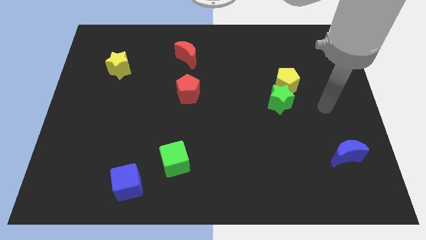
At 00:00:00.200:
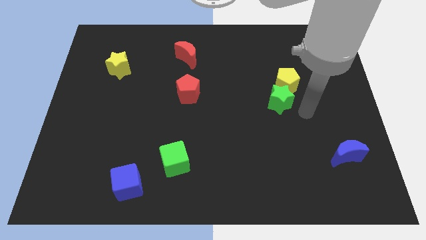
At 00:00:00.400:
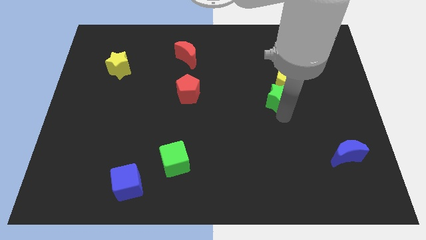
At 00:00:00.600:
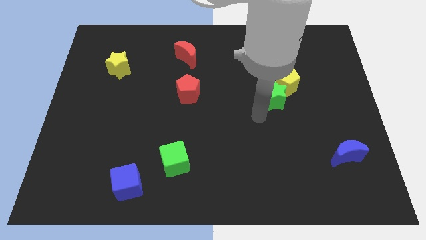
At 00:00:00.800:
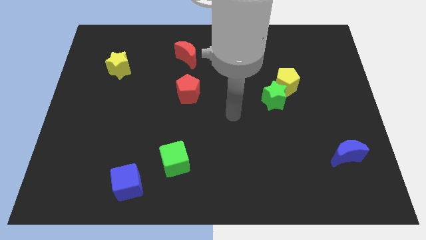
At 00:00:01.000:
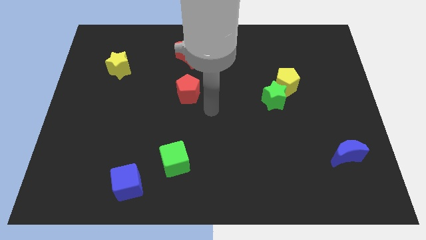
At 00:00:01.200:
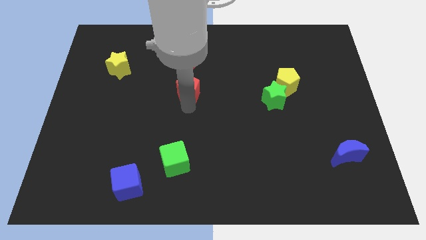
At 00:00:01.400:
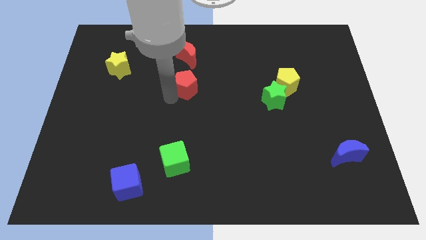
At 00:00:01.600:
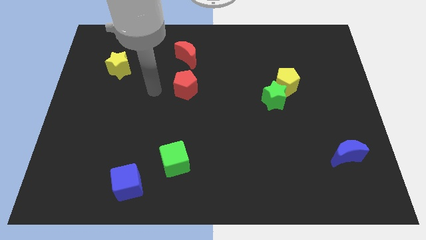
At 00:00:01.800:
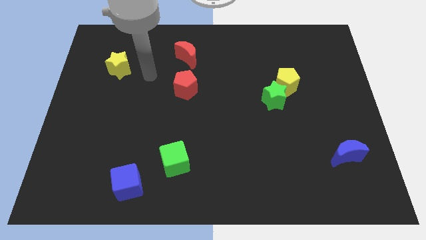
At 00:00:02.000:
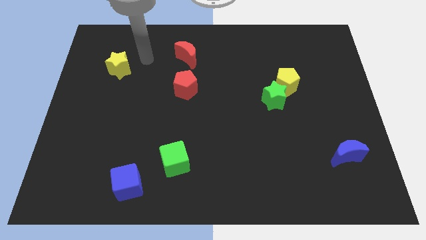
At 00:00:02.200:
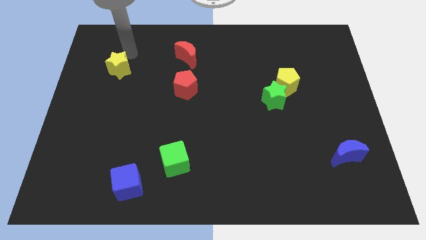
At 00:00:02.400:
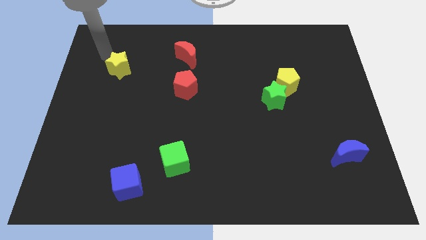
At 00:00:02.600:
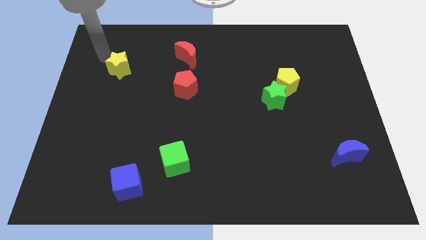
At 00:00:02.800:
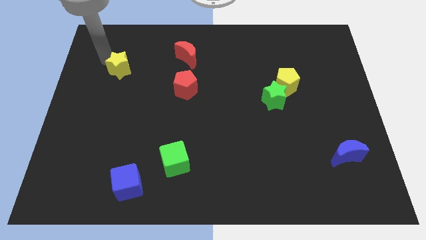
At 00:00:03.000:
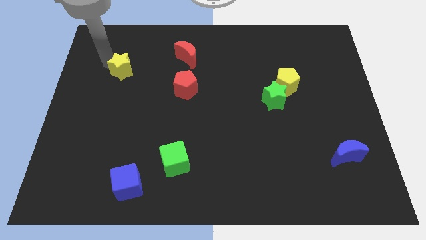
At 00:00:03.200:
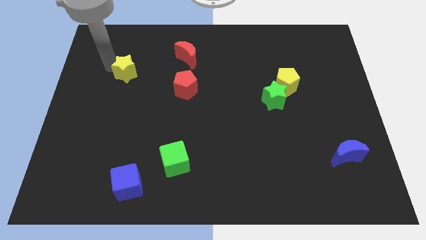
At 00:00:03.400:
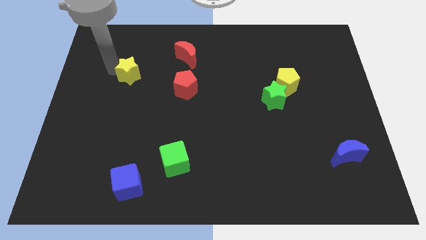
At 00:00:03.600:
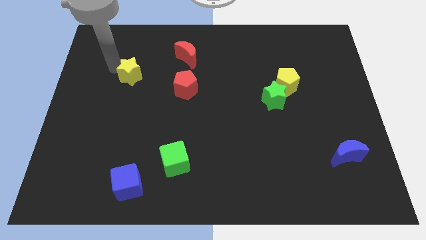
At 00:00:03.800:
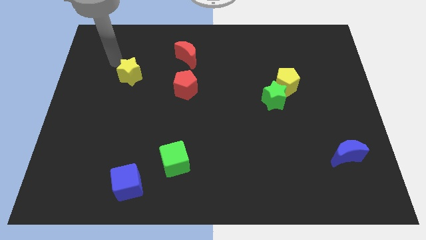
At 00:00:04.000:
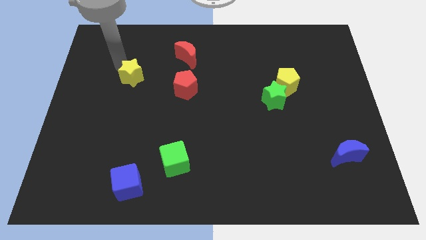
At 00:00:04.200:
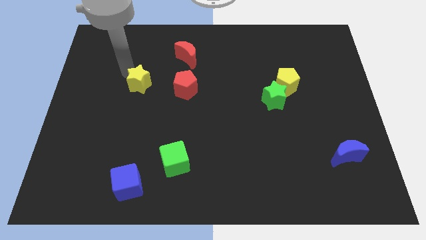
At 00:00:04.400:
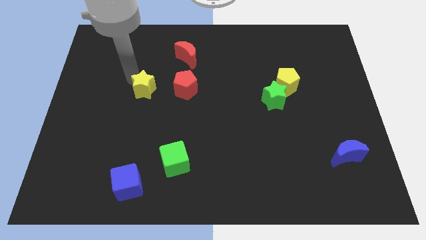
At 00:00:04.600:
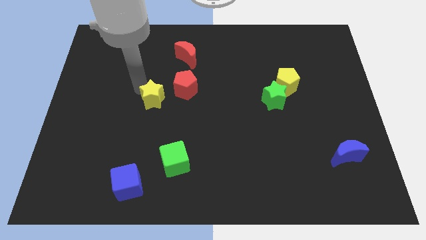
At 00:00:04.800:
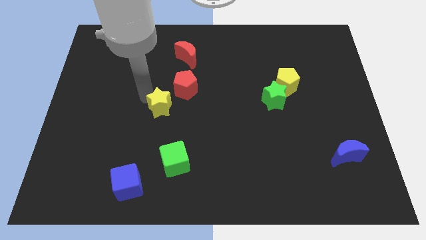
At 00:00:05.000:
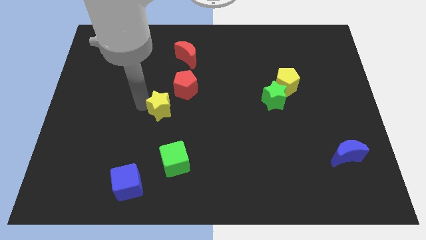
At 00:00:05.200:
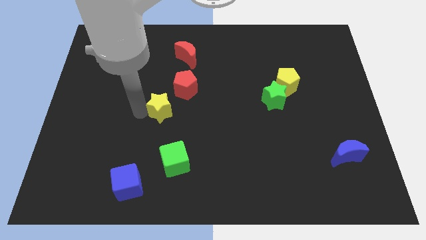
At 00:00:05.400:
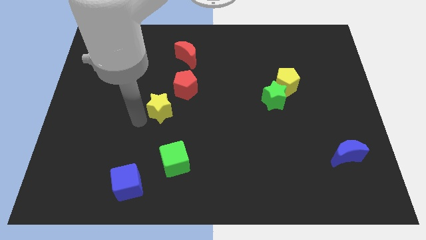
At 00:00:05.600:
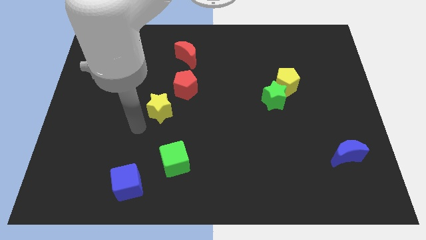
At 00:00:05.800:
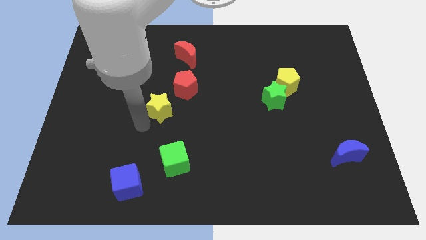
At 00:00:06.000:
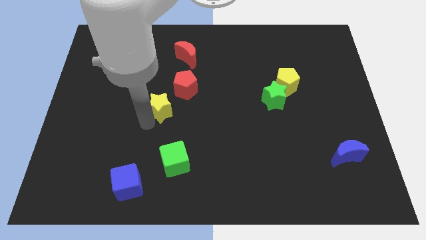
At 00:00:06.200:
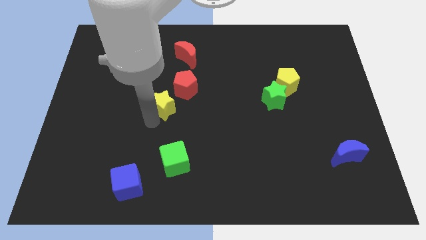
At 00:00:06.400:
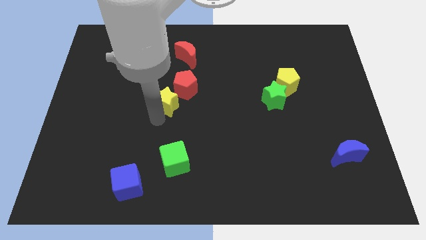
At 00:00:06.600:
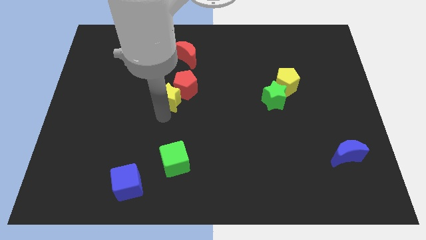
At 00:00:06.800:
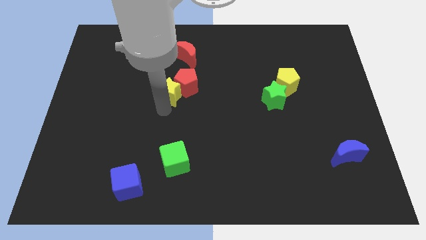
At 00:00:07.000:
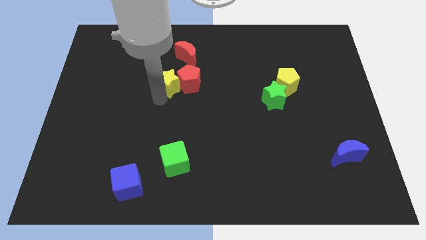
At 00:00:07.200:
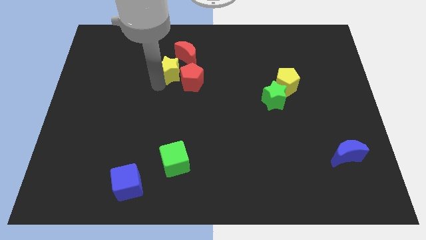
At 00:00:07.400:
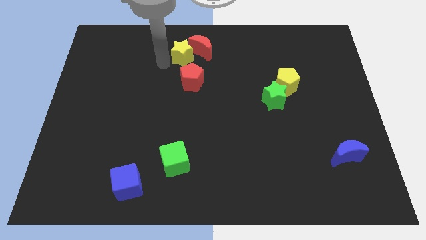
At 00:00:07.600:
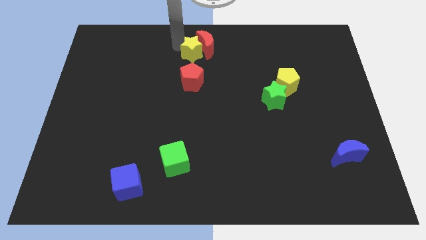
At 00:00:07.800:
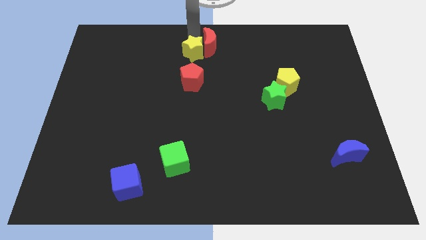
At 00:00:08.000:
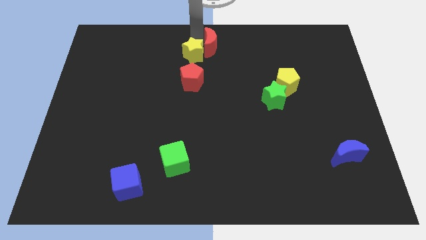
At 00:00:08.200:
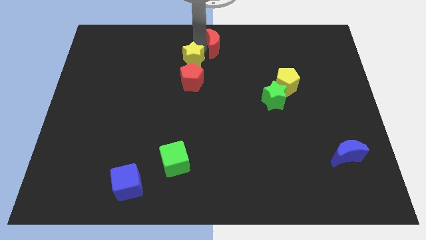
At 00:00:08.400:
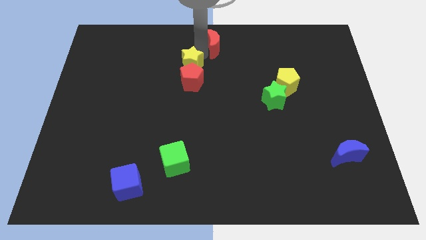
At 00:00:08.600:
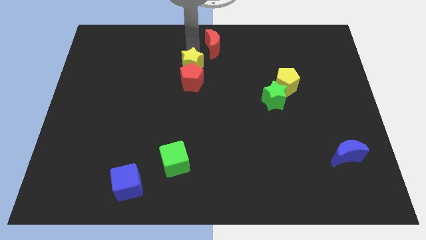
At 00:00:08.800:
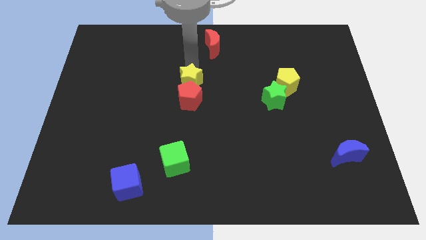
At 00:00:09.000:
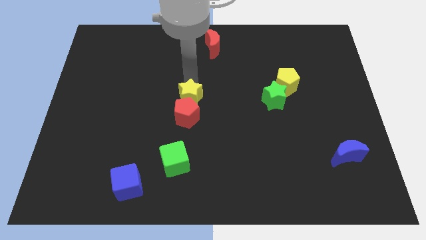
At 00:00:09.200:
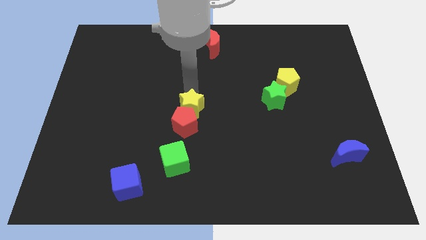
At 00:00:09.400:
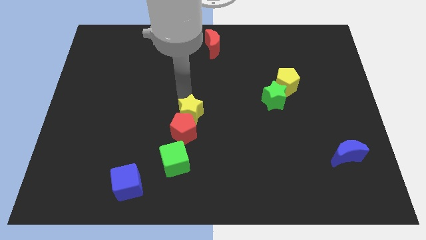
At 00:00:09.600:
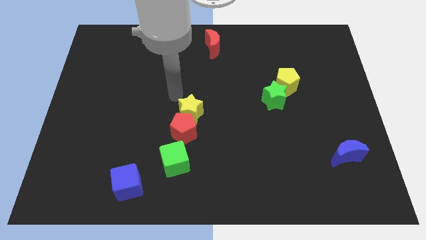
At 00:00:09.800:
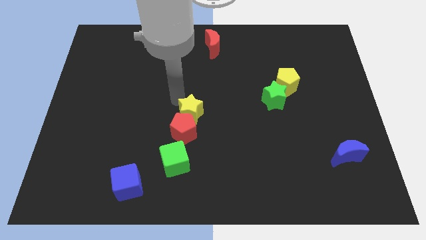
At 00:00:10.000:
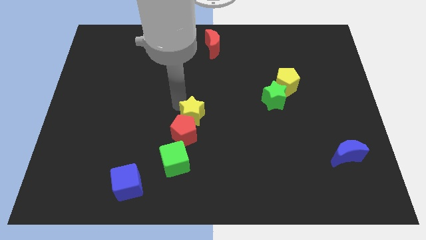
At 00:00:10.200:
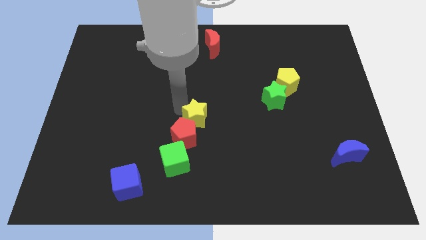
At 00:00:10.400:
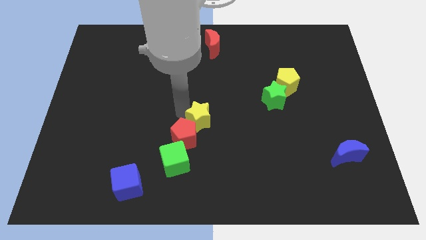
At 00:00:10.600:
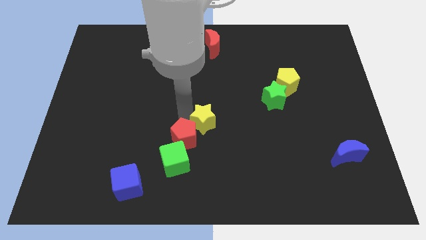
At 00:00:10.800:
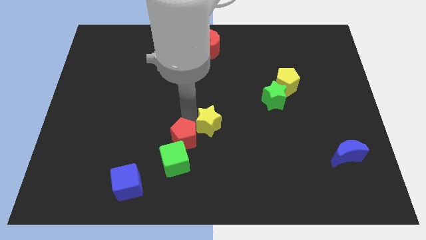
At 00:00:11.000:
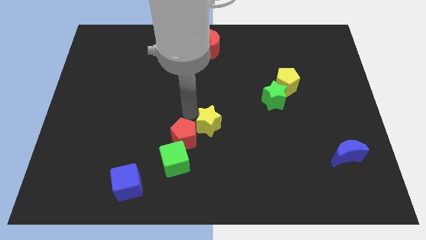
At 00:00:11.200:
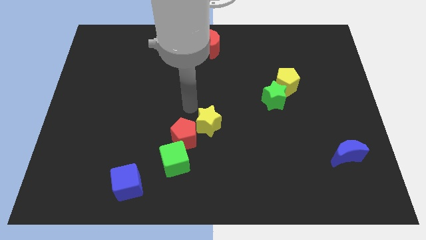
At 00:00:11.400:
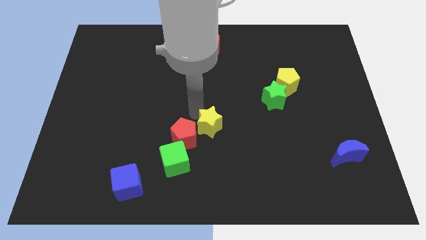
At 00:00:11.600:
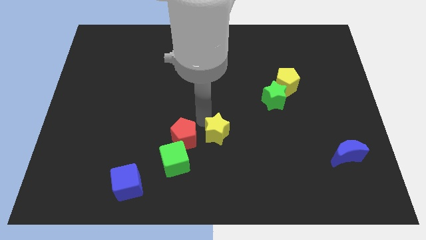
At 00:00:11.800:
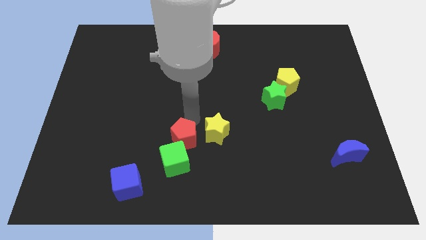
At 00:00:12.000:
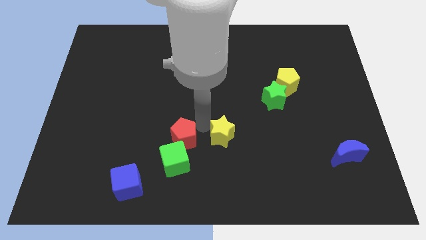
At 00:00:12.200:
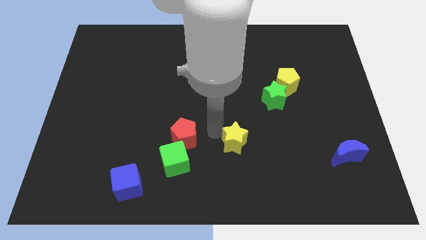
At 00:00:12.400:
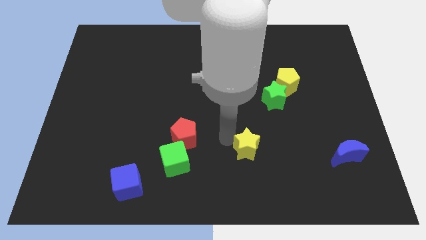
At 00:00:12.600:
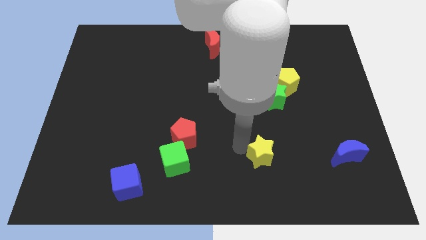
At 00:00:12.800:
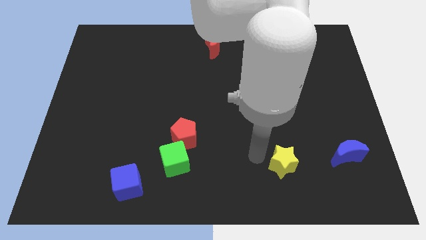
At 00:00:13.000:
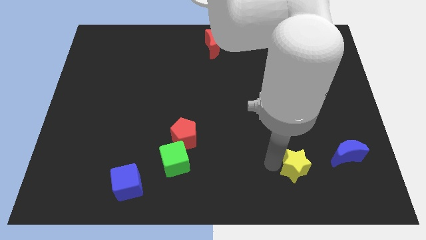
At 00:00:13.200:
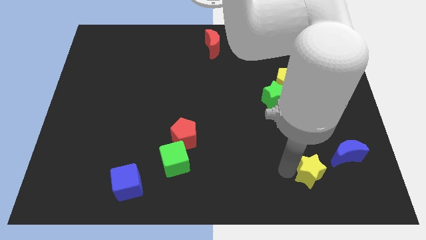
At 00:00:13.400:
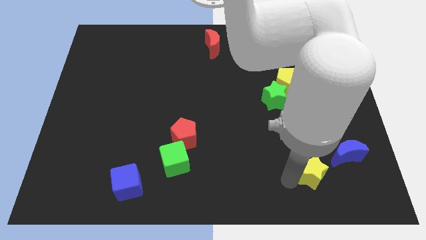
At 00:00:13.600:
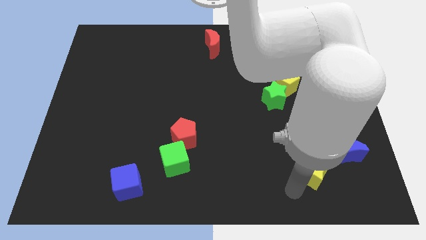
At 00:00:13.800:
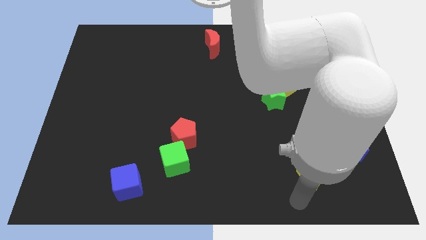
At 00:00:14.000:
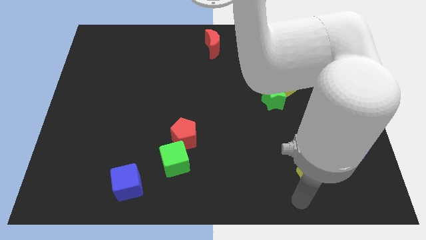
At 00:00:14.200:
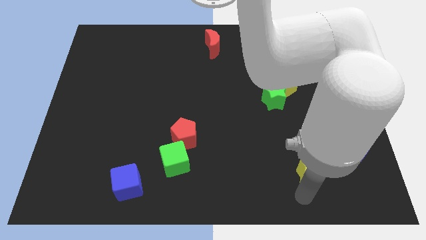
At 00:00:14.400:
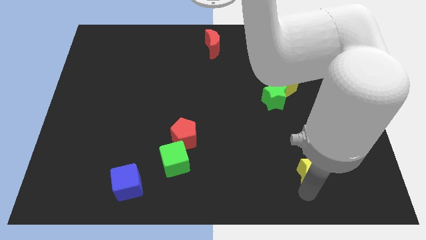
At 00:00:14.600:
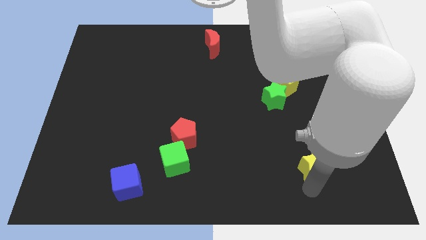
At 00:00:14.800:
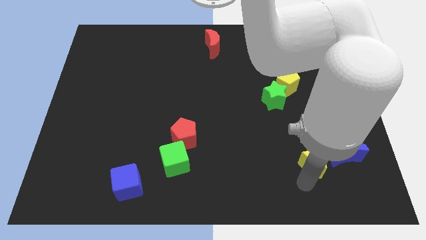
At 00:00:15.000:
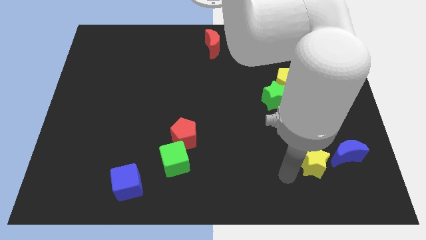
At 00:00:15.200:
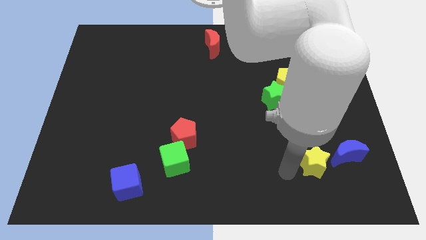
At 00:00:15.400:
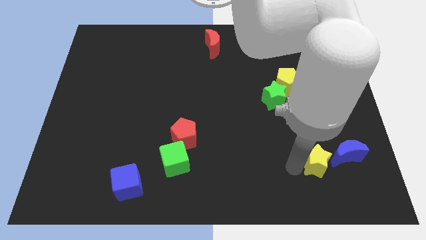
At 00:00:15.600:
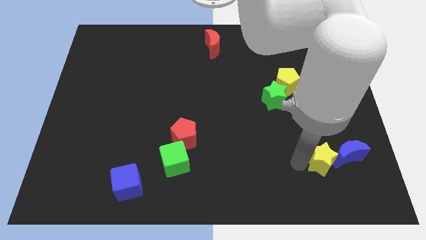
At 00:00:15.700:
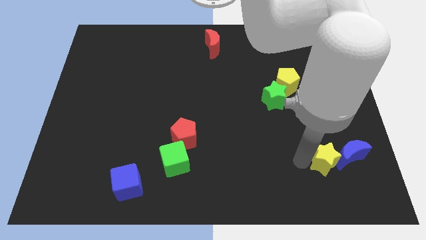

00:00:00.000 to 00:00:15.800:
slide the yellow star towards the blue moon
